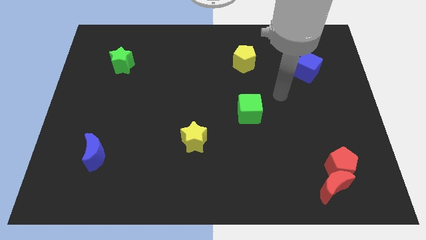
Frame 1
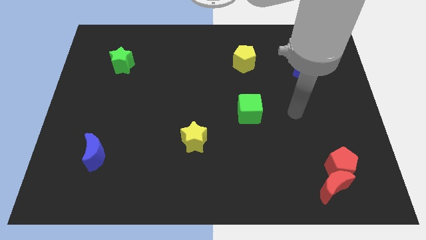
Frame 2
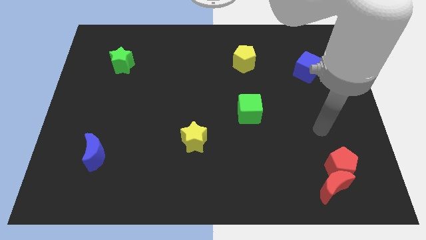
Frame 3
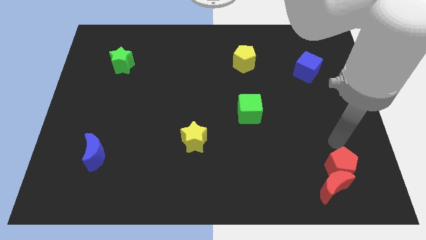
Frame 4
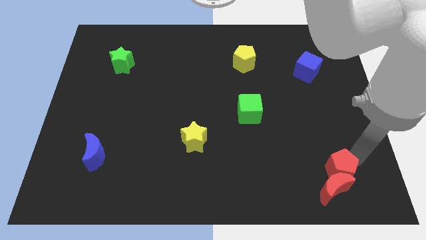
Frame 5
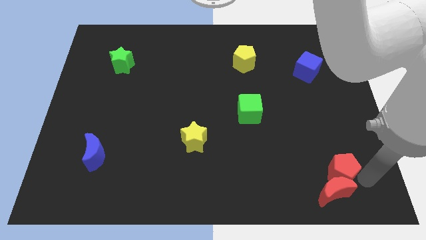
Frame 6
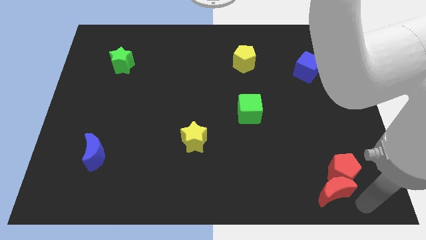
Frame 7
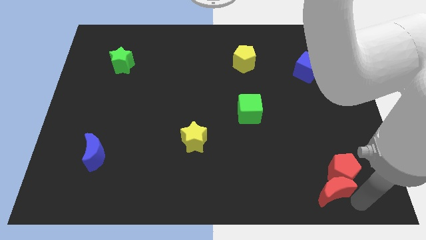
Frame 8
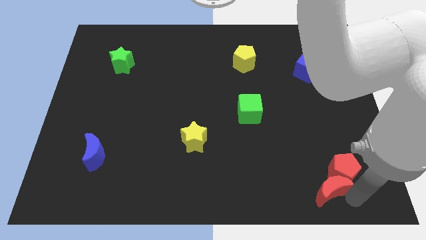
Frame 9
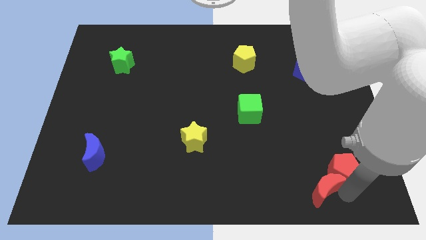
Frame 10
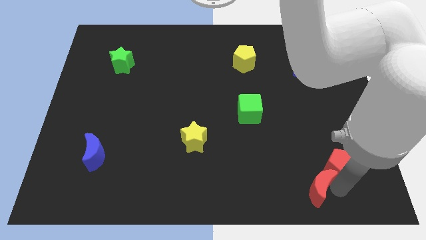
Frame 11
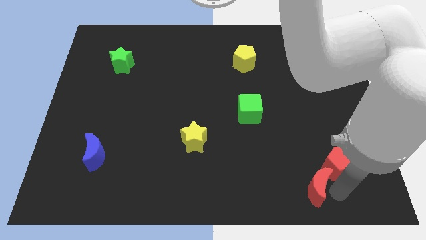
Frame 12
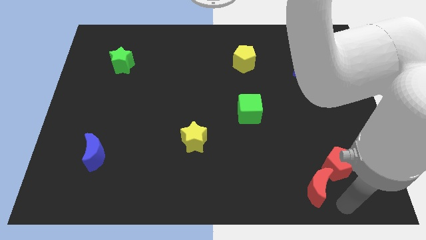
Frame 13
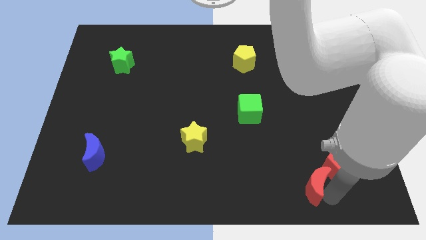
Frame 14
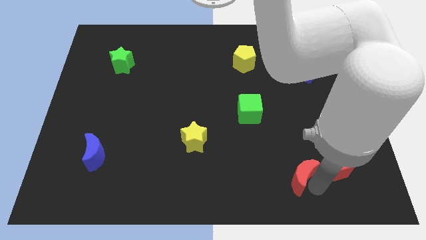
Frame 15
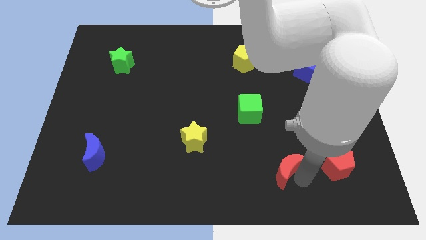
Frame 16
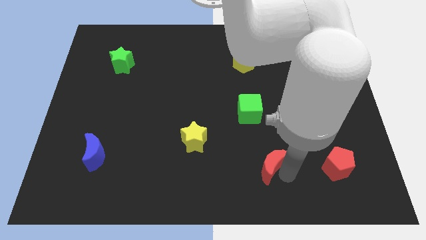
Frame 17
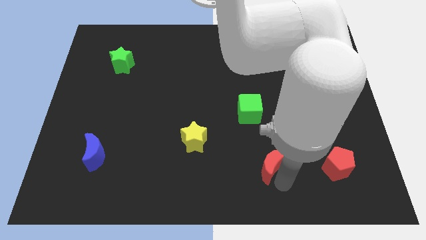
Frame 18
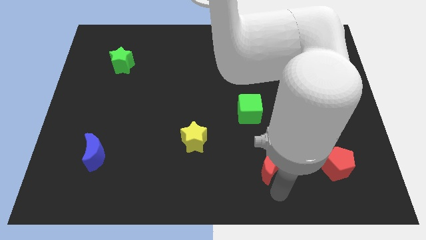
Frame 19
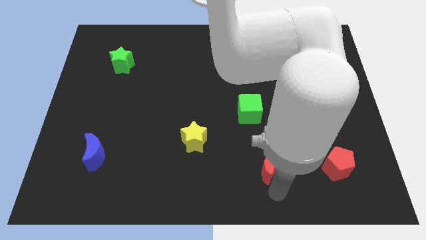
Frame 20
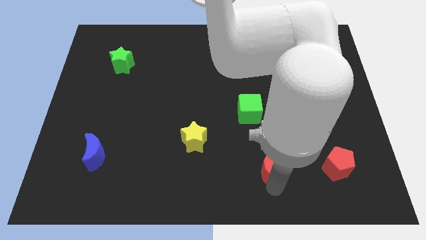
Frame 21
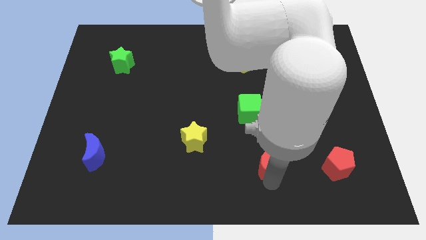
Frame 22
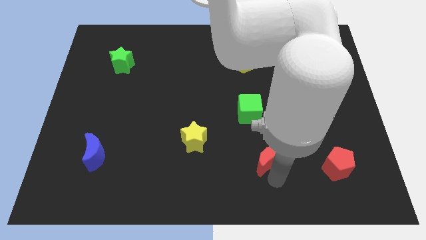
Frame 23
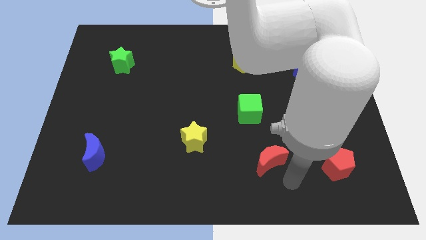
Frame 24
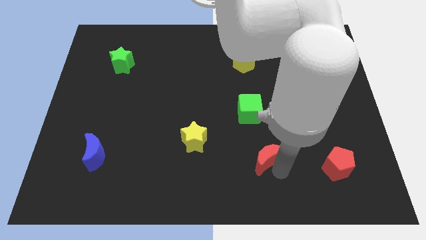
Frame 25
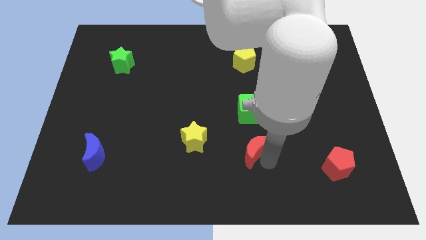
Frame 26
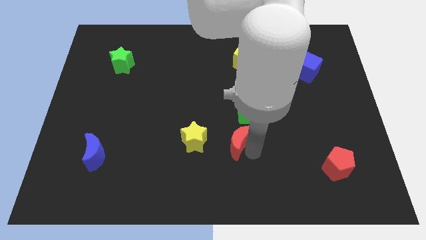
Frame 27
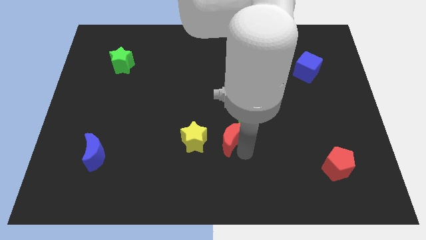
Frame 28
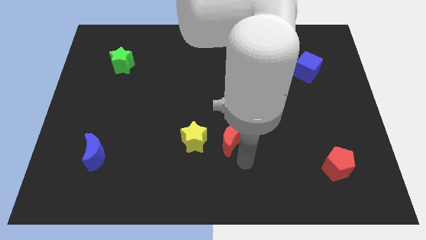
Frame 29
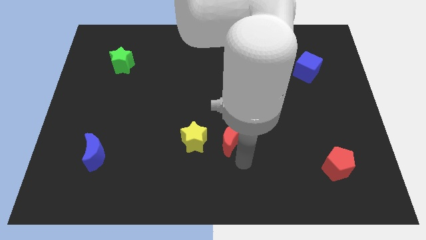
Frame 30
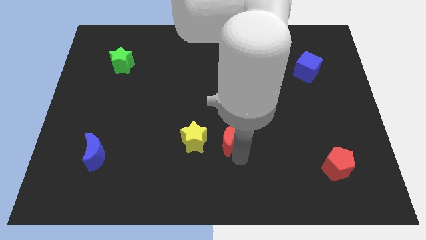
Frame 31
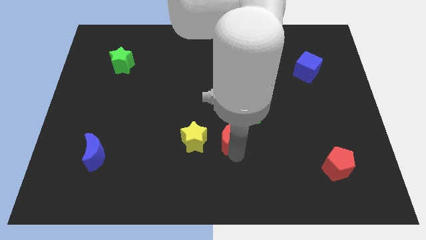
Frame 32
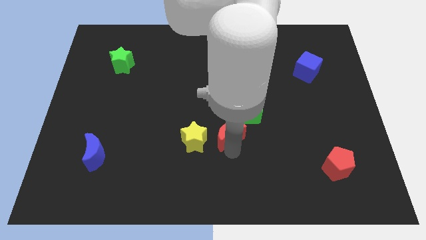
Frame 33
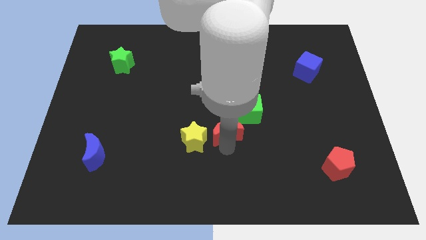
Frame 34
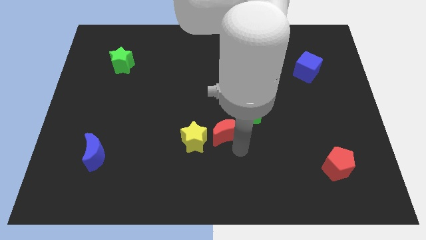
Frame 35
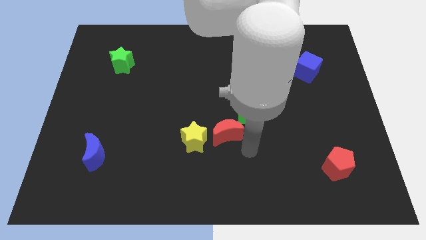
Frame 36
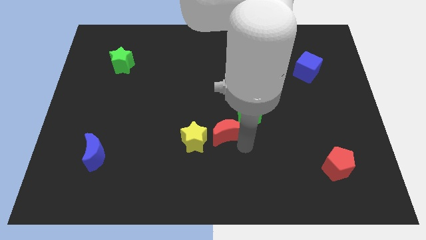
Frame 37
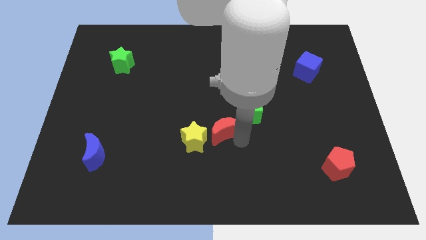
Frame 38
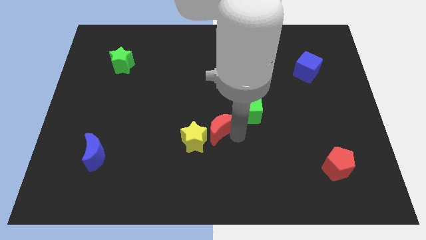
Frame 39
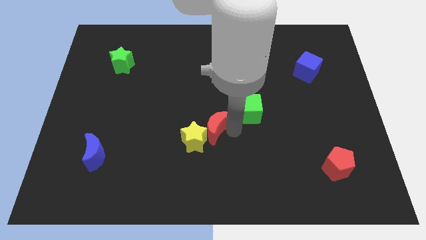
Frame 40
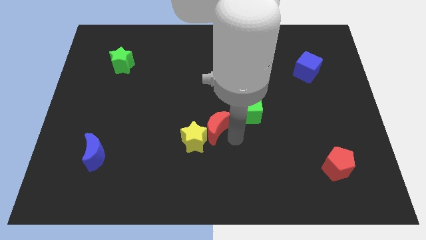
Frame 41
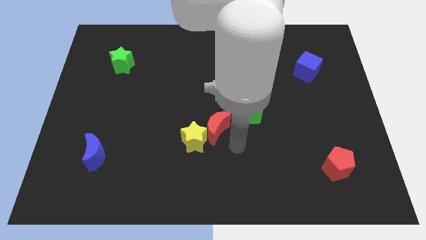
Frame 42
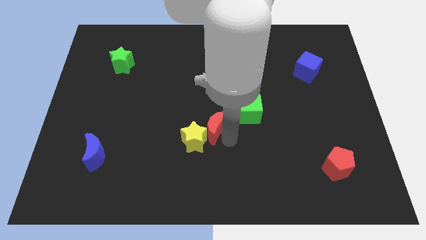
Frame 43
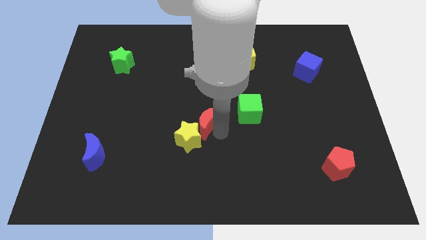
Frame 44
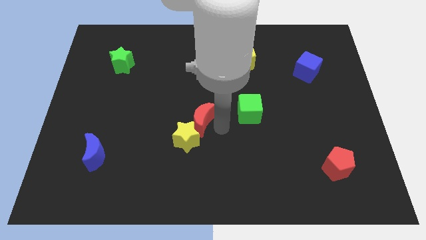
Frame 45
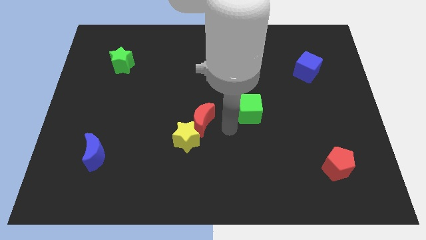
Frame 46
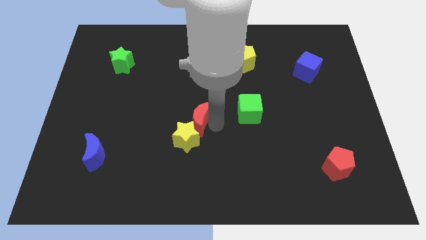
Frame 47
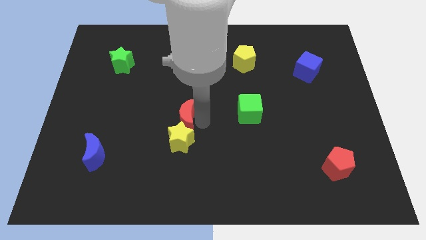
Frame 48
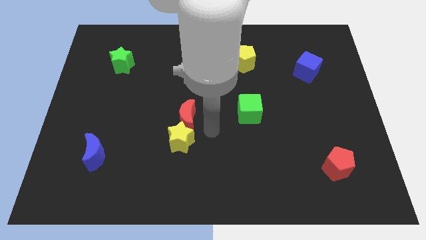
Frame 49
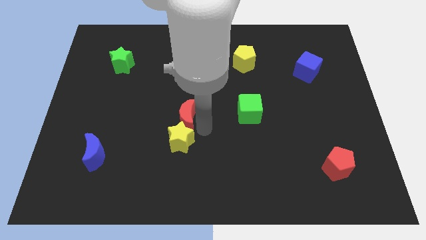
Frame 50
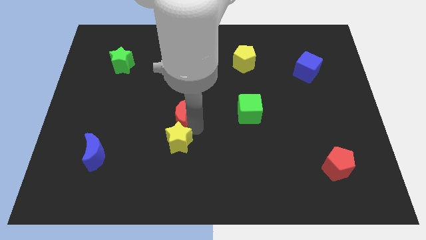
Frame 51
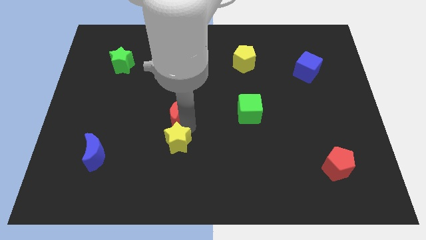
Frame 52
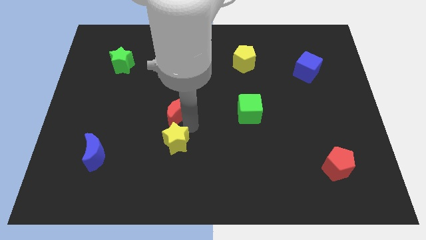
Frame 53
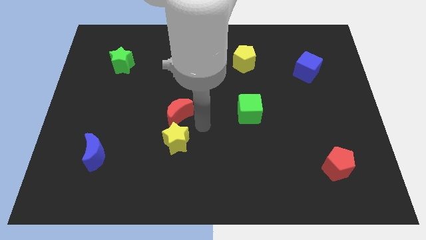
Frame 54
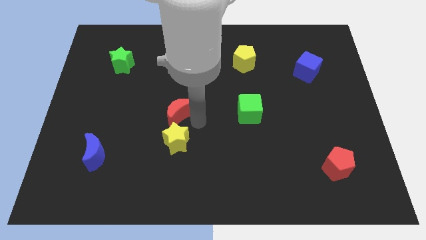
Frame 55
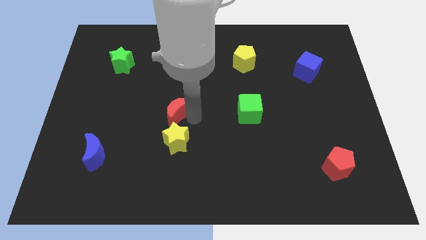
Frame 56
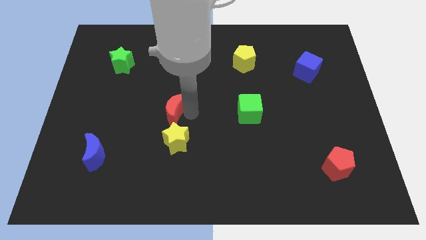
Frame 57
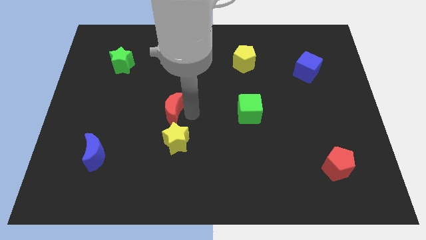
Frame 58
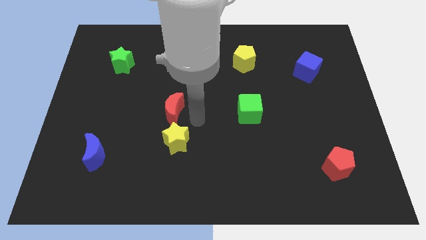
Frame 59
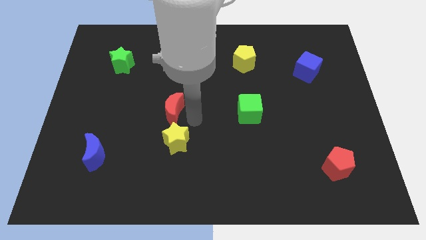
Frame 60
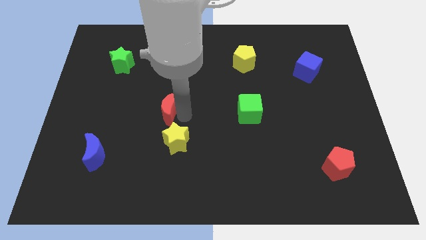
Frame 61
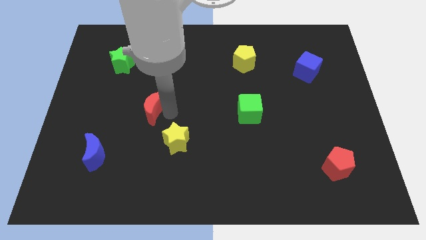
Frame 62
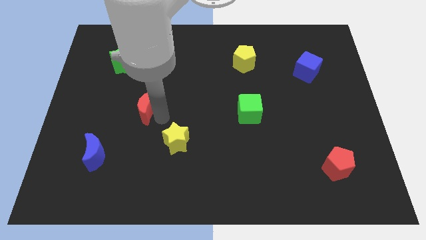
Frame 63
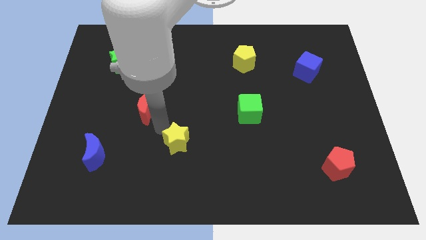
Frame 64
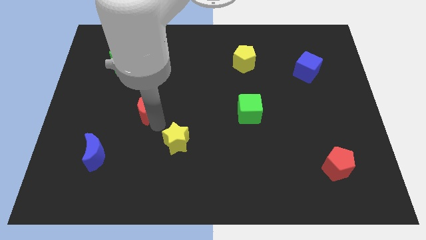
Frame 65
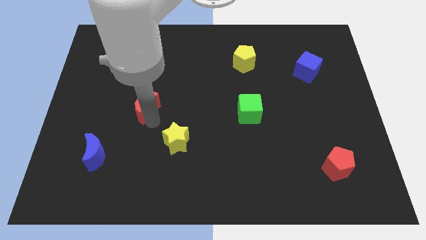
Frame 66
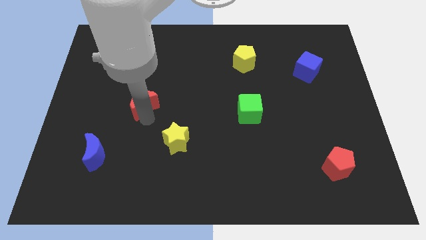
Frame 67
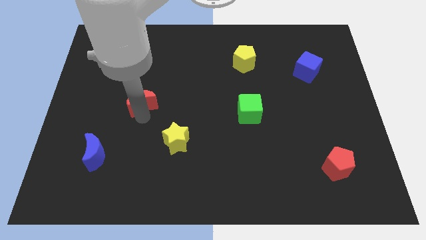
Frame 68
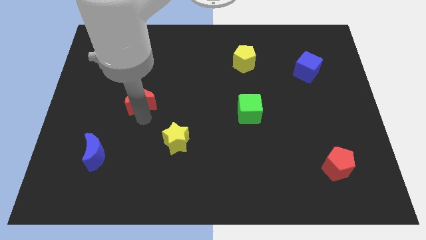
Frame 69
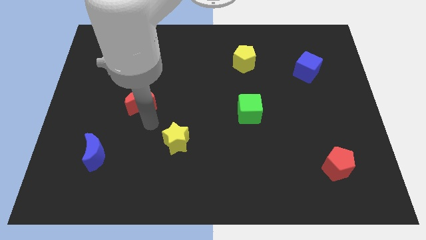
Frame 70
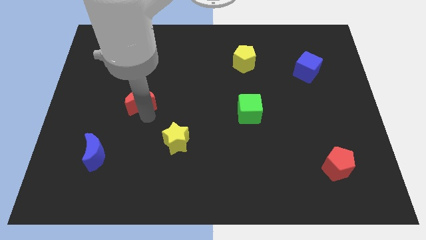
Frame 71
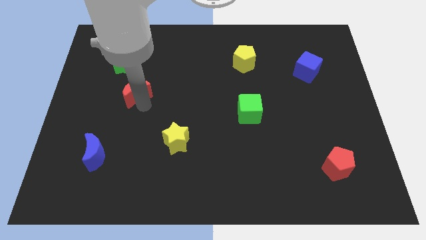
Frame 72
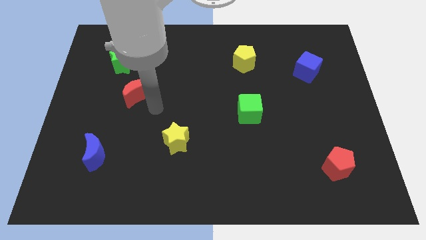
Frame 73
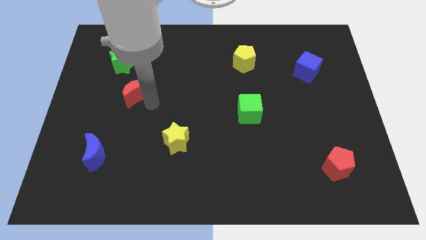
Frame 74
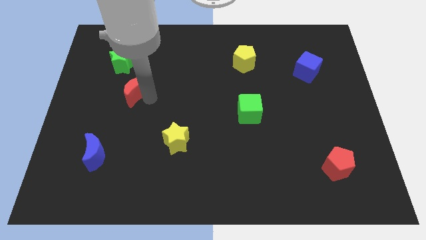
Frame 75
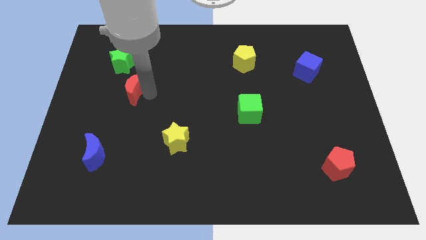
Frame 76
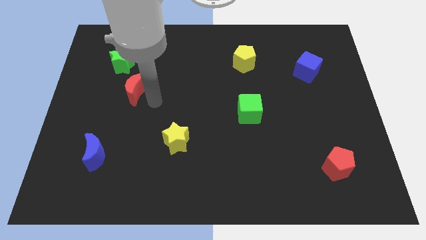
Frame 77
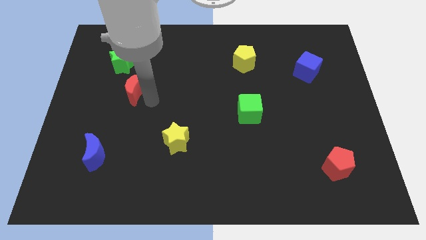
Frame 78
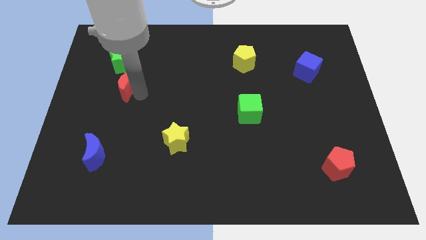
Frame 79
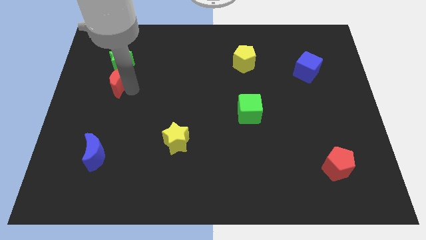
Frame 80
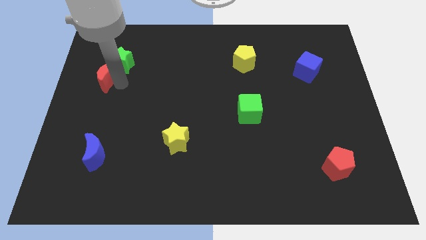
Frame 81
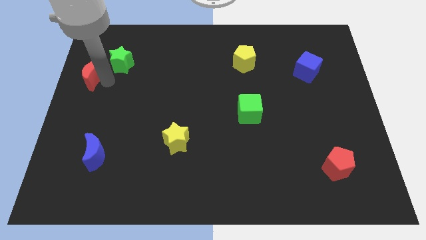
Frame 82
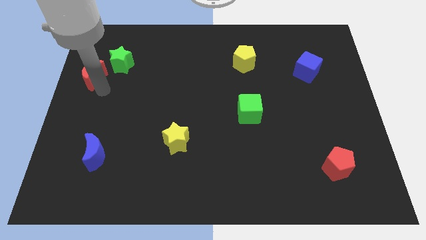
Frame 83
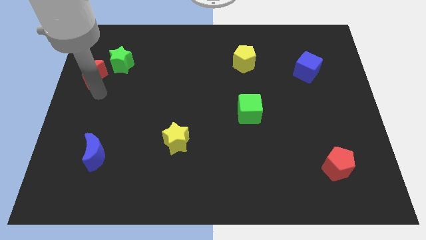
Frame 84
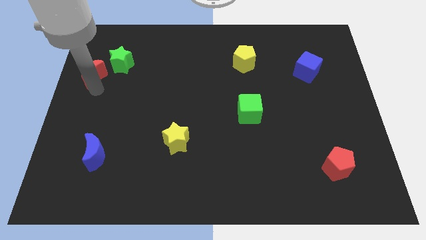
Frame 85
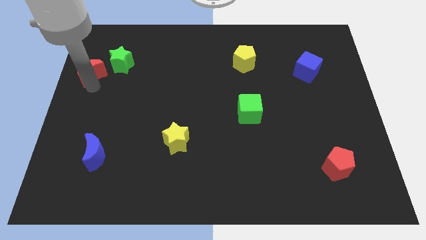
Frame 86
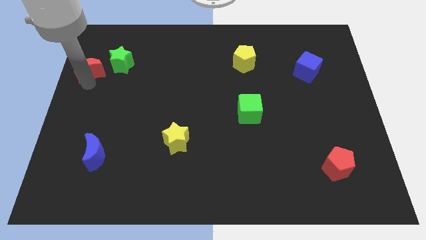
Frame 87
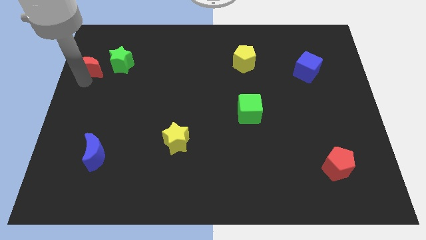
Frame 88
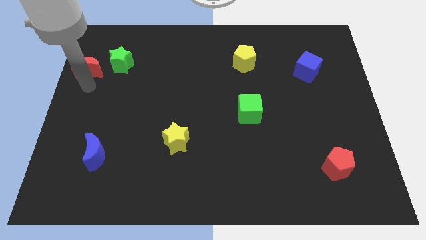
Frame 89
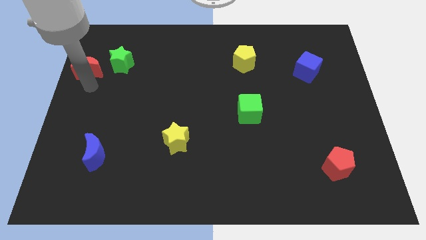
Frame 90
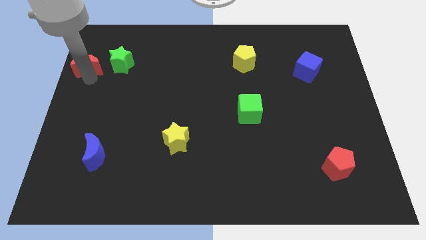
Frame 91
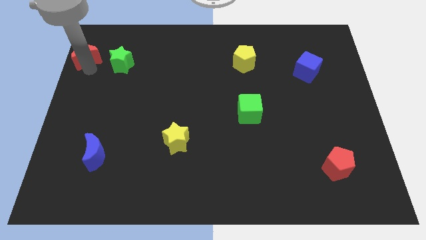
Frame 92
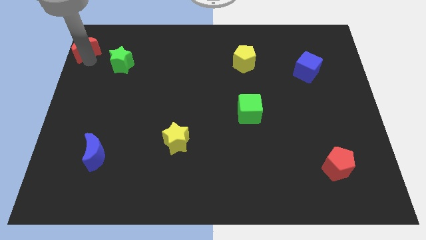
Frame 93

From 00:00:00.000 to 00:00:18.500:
move the red moon to the top left
